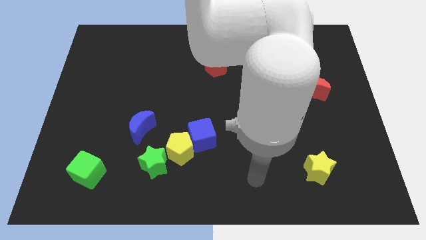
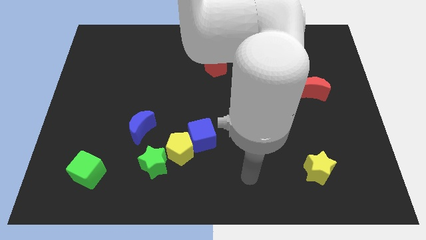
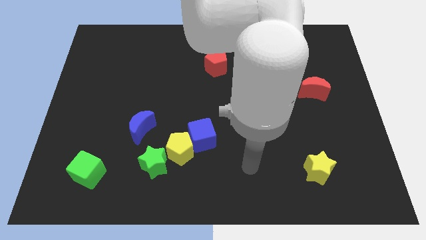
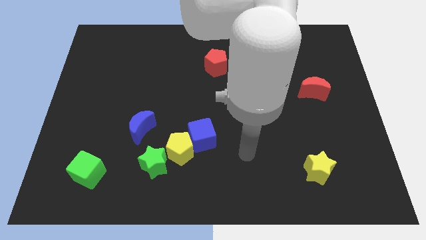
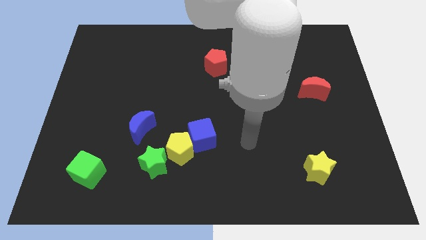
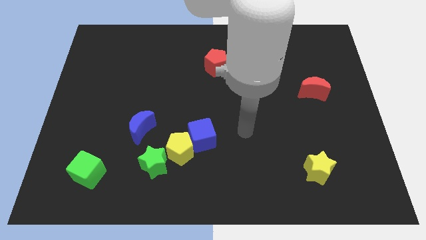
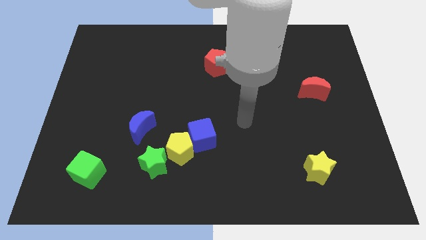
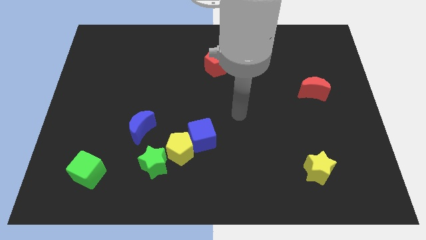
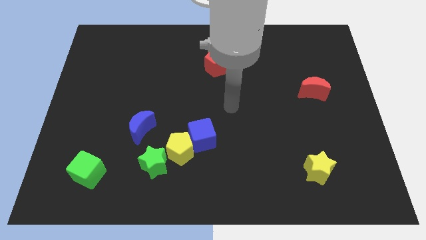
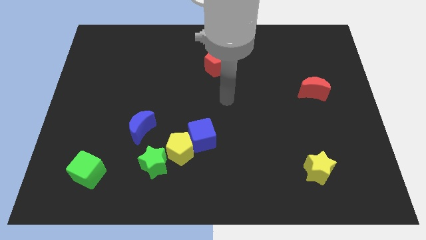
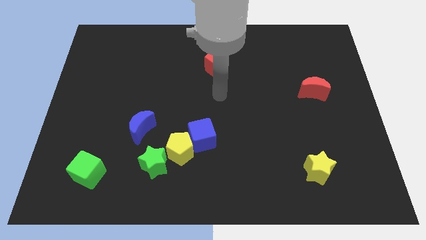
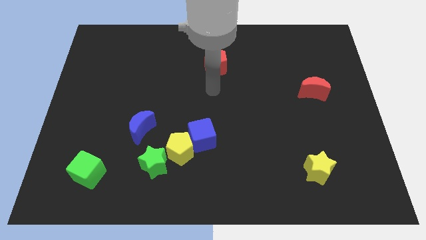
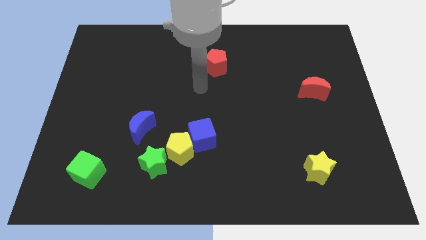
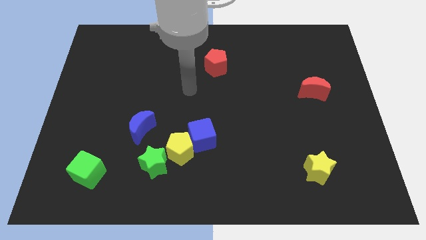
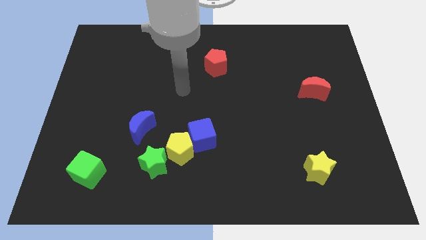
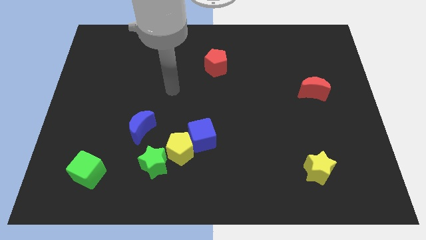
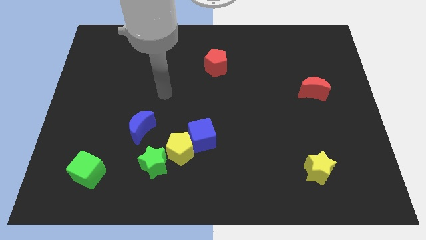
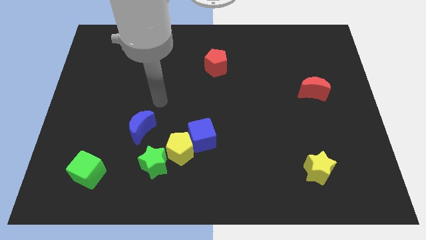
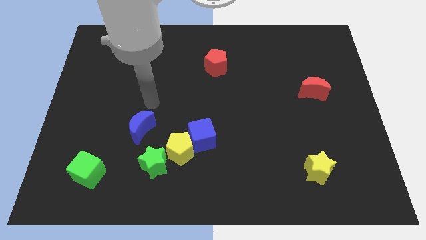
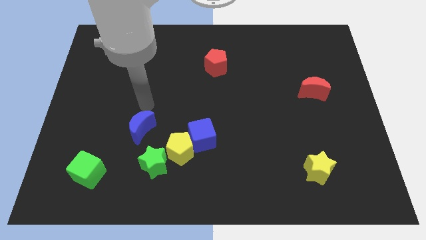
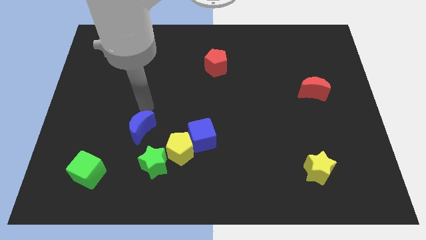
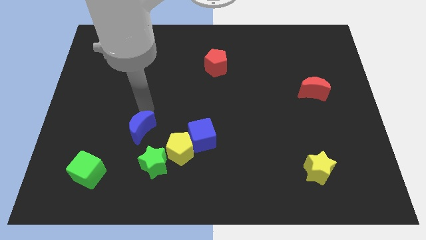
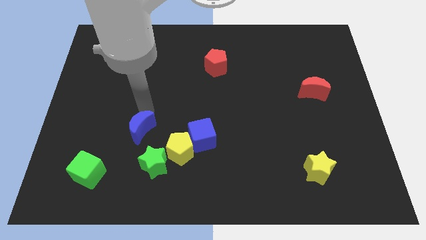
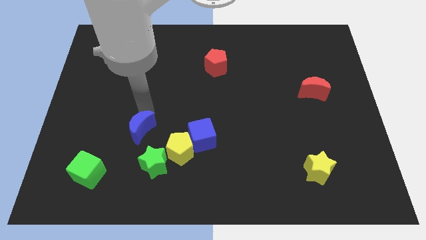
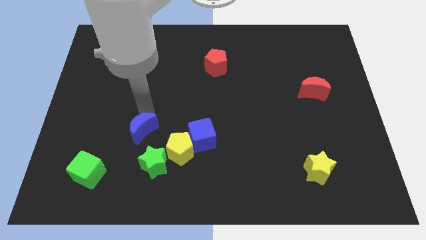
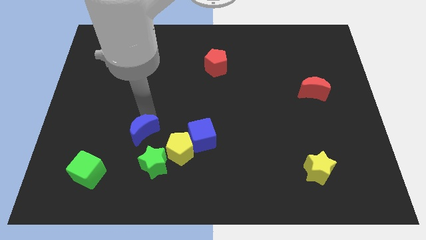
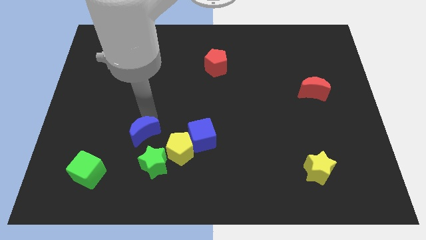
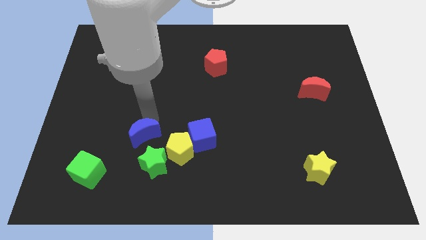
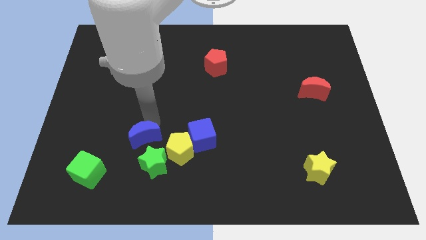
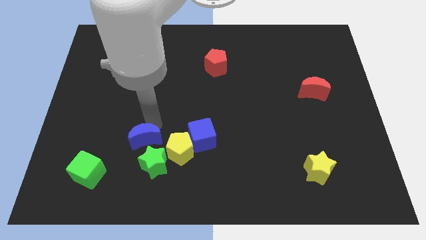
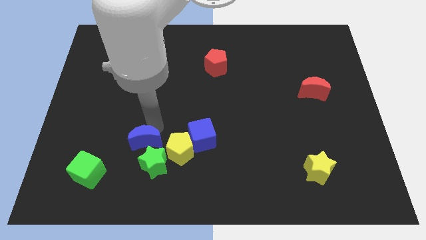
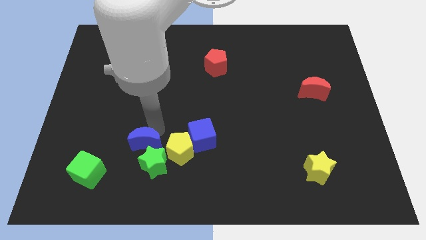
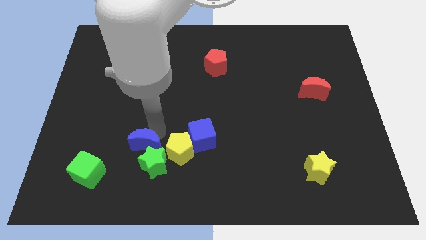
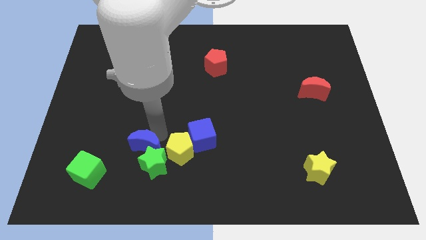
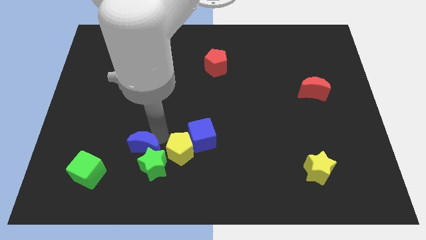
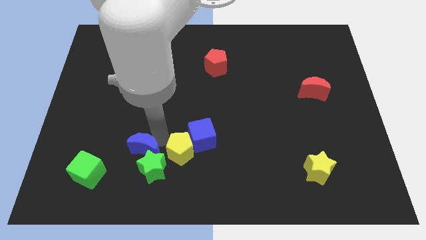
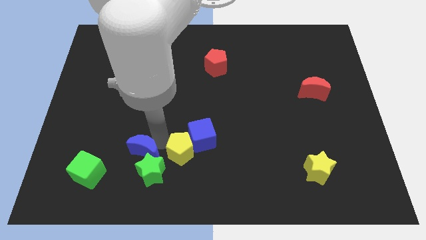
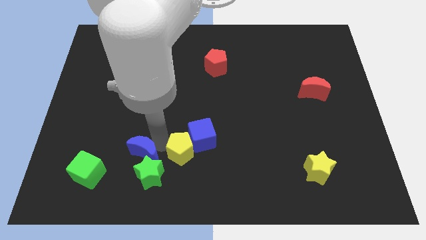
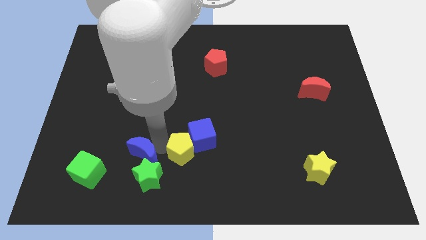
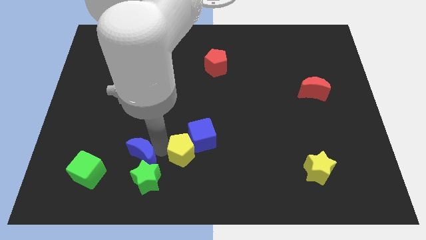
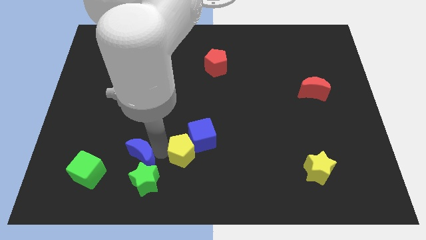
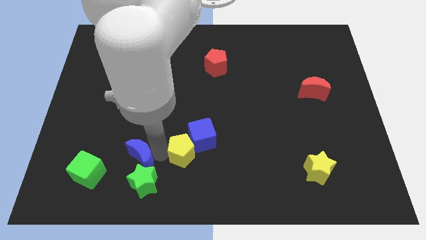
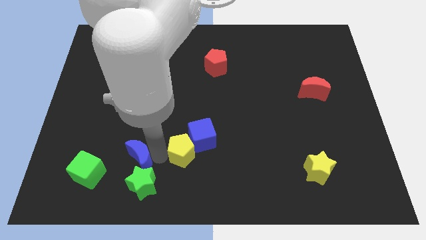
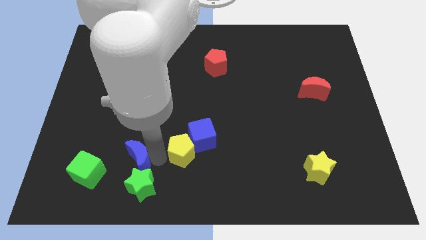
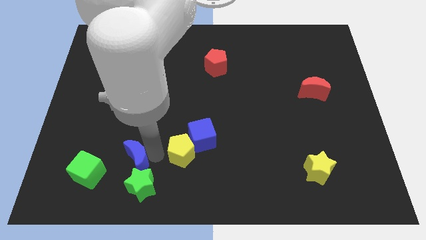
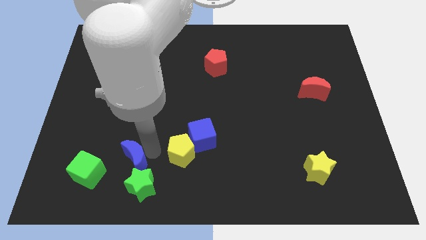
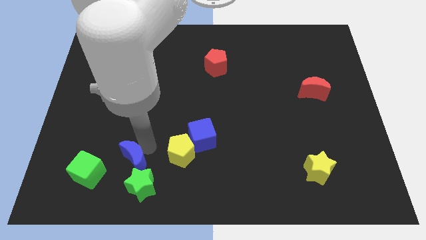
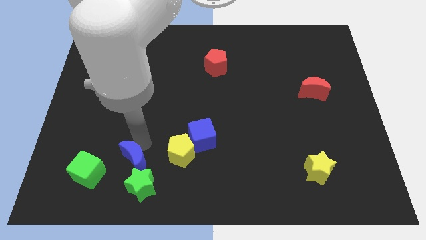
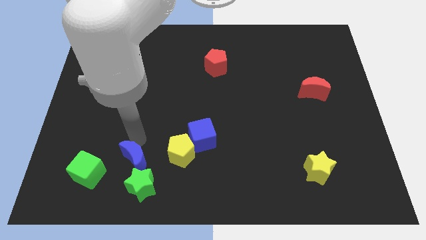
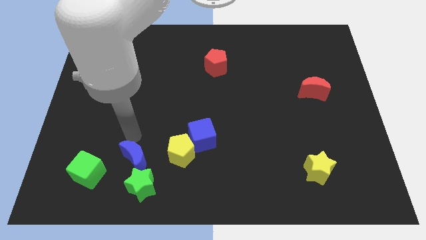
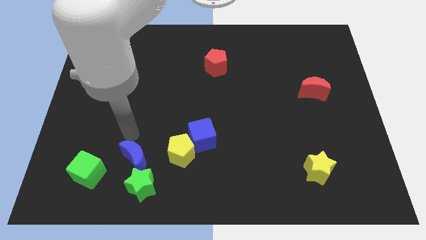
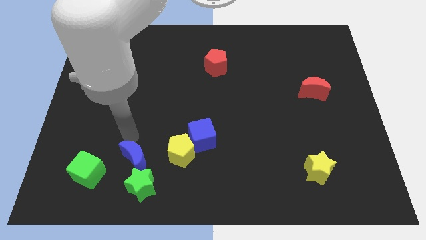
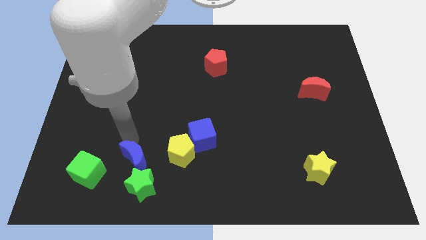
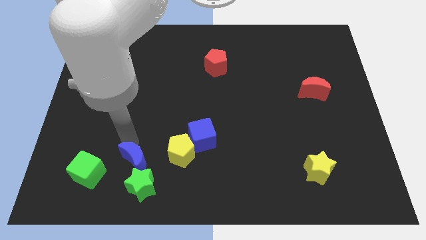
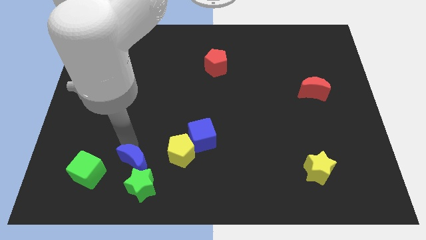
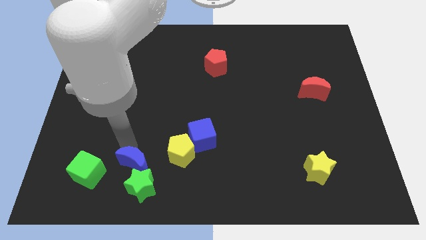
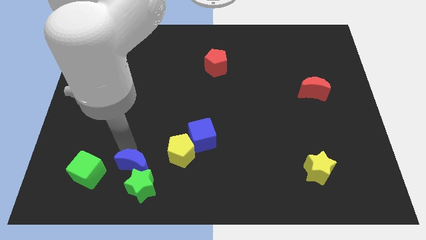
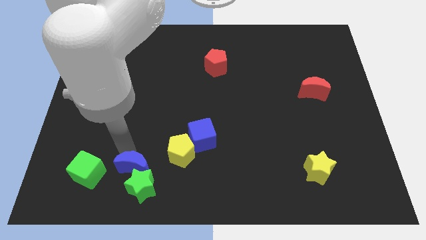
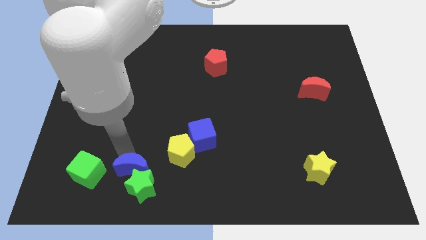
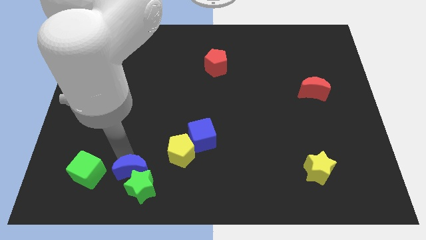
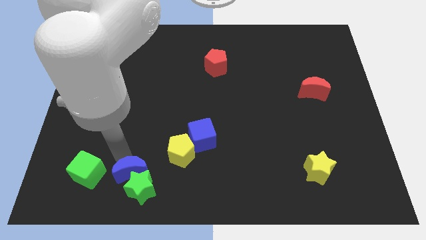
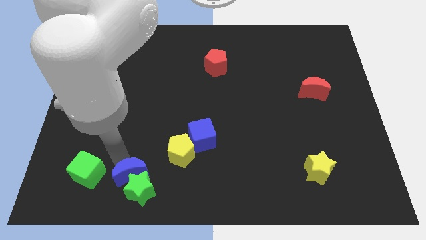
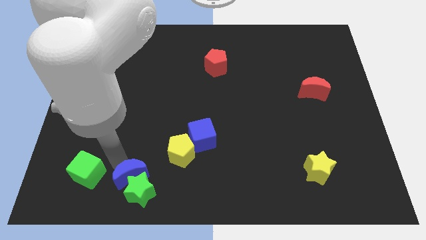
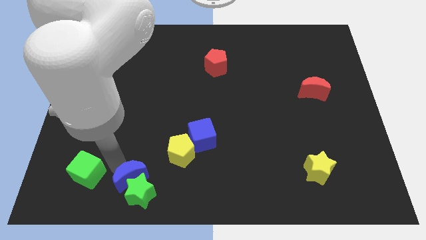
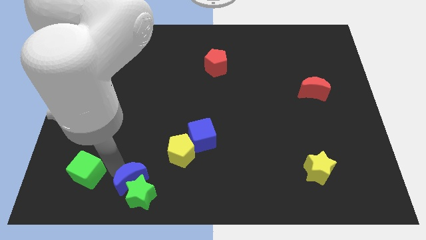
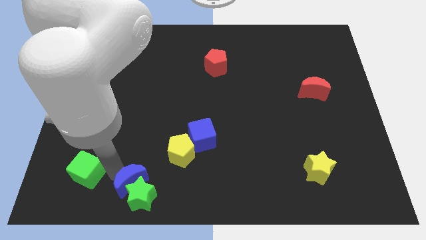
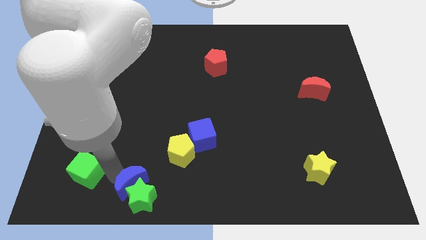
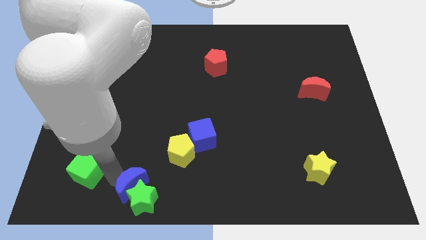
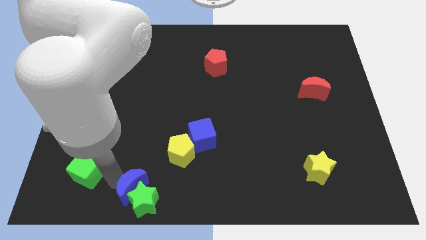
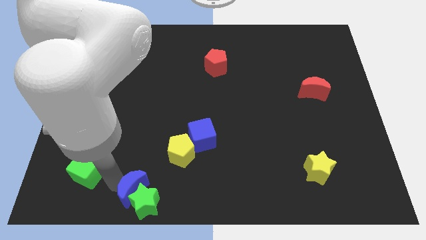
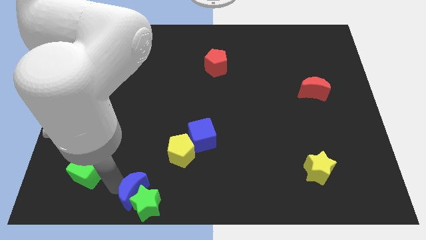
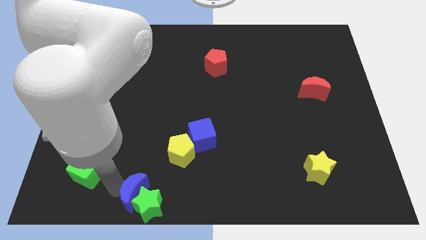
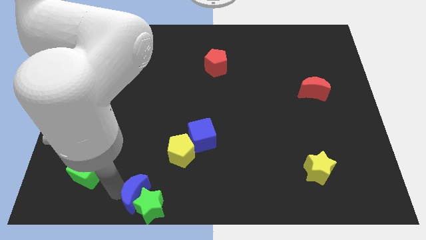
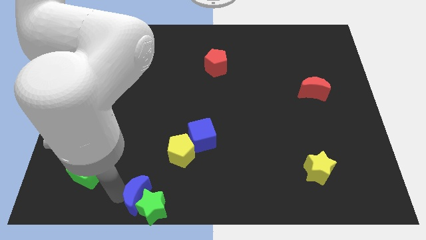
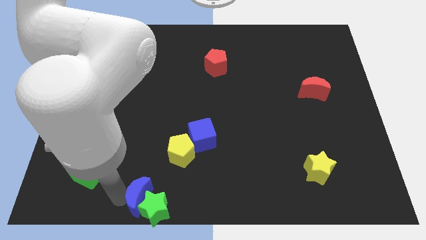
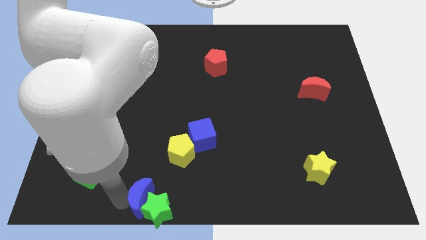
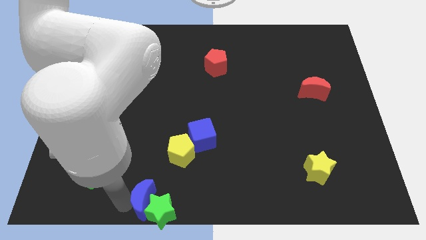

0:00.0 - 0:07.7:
slide the blue moon to the bottom
